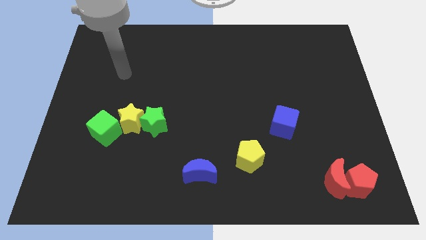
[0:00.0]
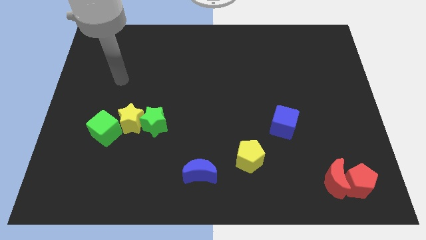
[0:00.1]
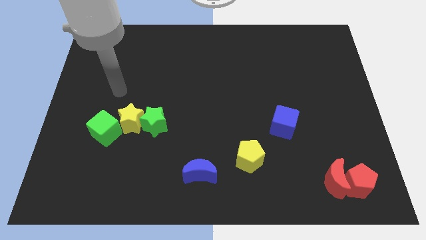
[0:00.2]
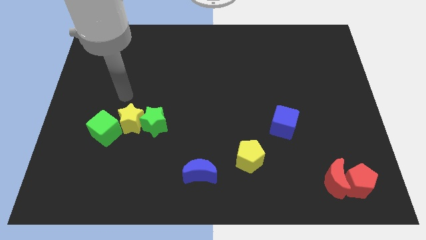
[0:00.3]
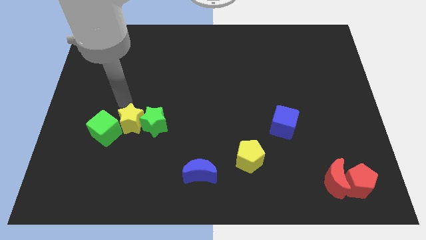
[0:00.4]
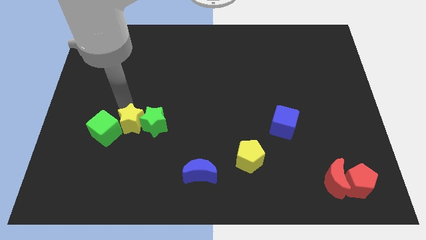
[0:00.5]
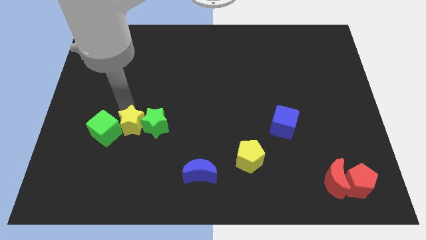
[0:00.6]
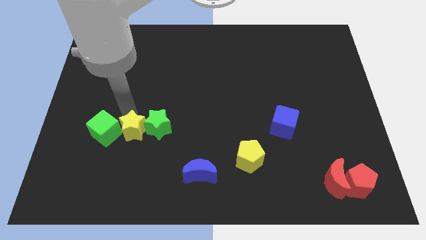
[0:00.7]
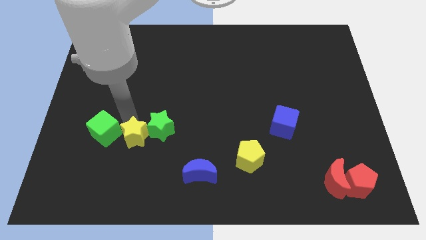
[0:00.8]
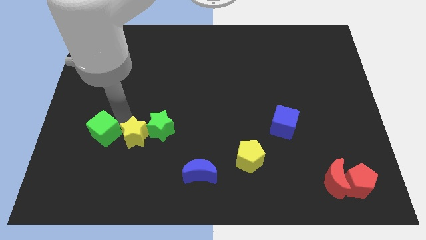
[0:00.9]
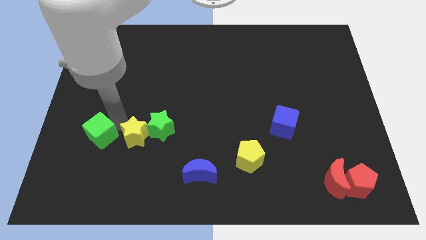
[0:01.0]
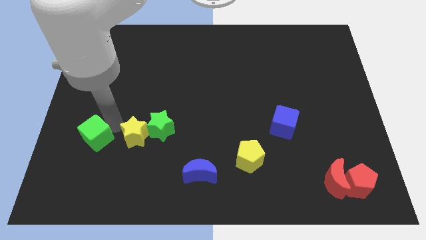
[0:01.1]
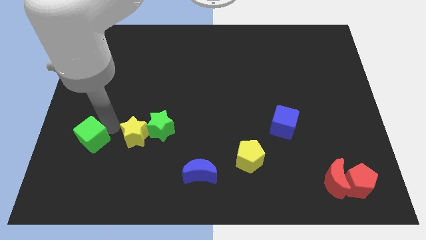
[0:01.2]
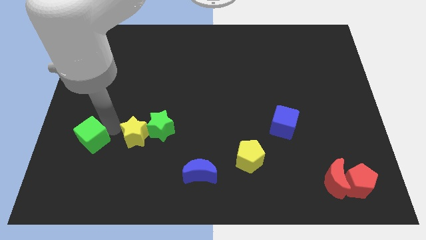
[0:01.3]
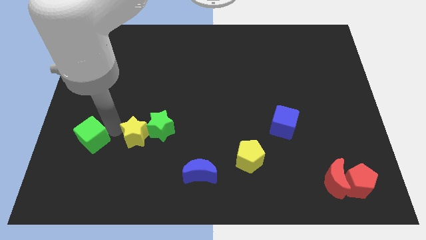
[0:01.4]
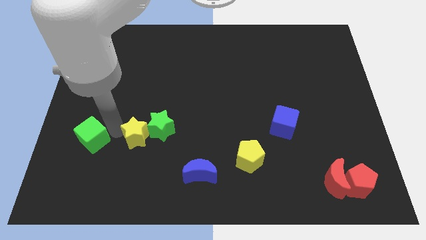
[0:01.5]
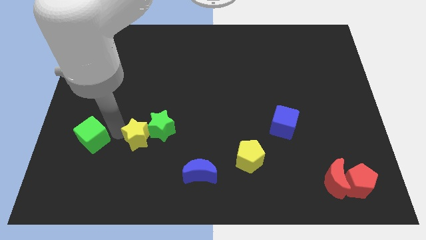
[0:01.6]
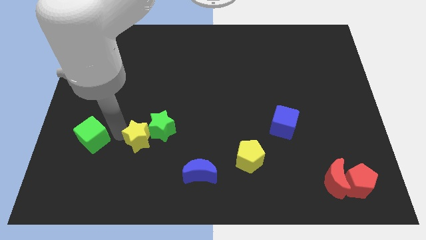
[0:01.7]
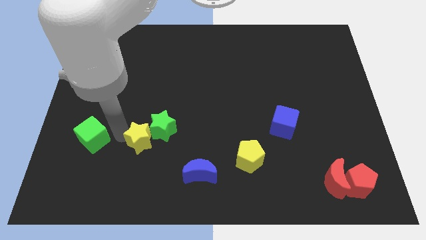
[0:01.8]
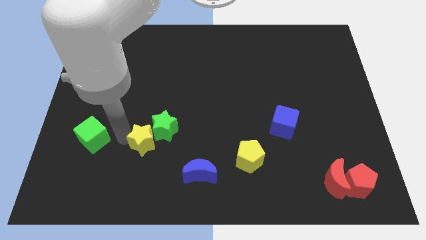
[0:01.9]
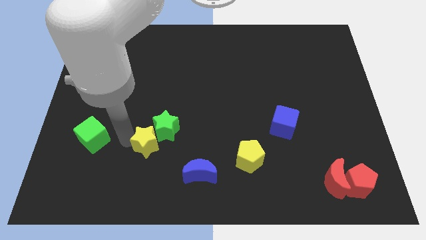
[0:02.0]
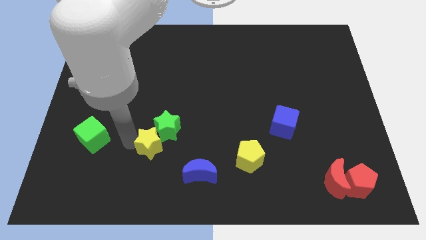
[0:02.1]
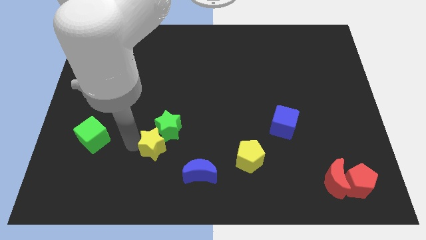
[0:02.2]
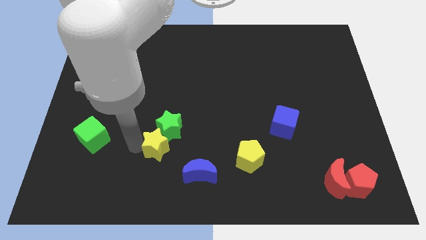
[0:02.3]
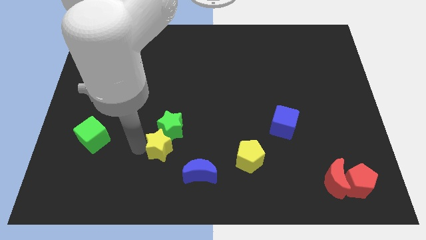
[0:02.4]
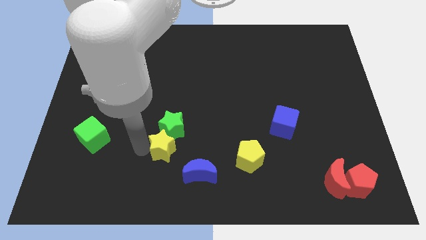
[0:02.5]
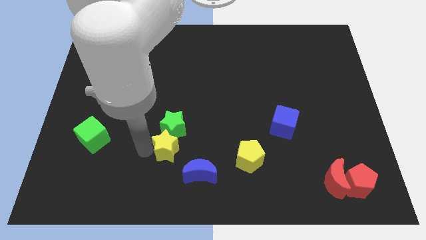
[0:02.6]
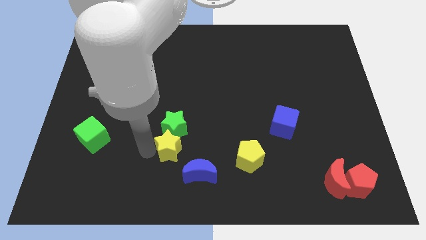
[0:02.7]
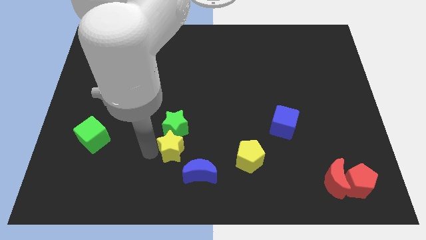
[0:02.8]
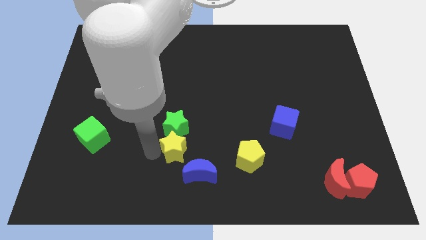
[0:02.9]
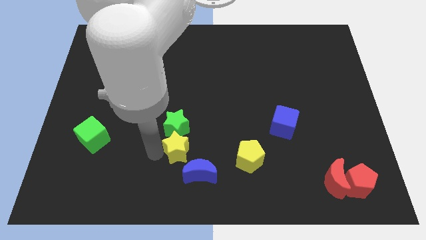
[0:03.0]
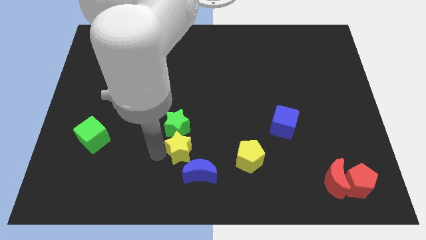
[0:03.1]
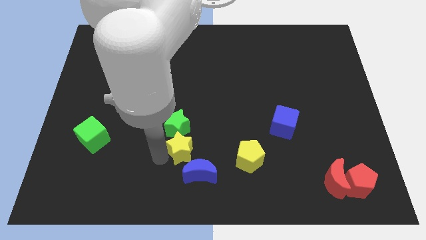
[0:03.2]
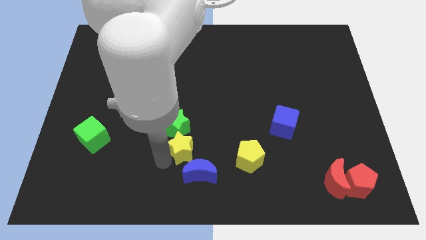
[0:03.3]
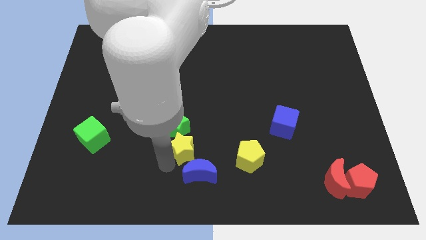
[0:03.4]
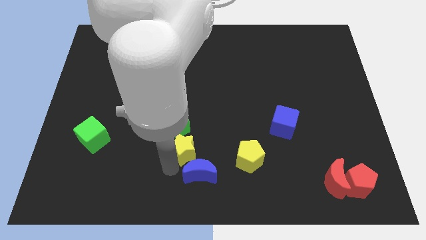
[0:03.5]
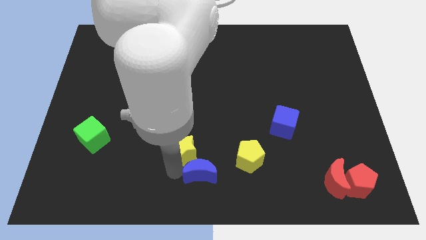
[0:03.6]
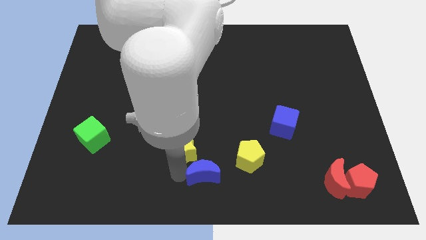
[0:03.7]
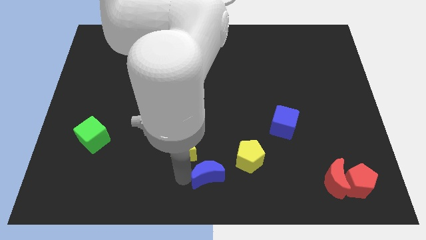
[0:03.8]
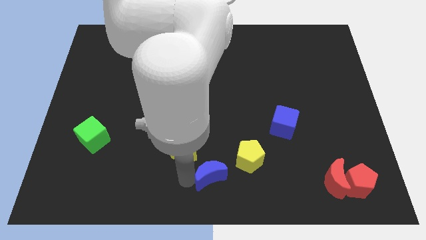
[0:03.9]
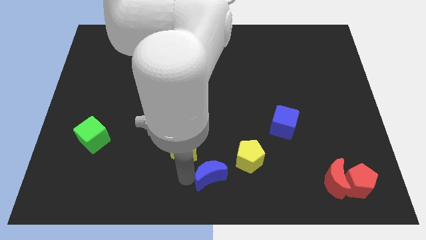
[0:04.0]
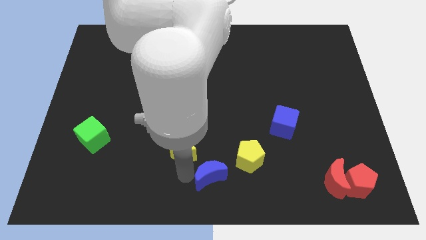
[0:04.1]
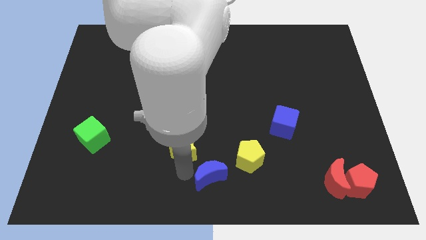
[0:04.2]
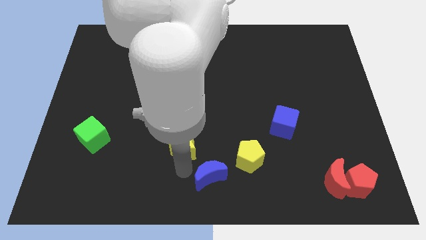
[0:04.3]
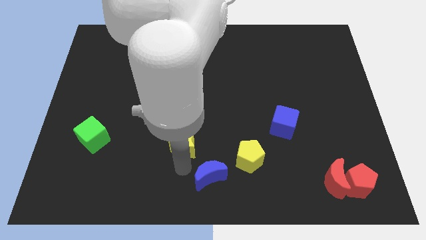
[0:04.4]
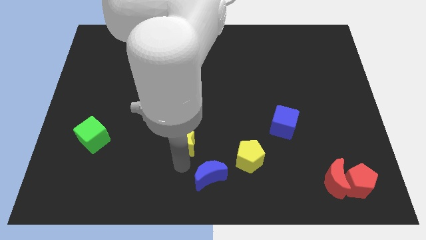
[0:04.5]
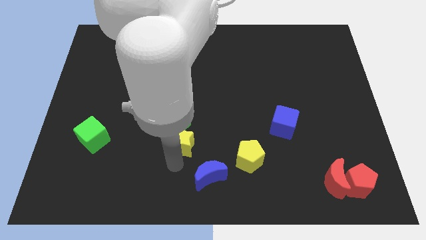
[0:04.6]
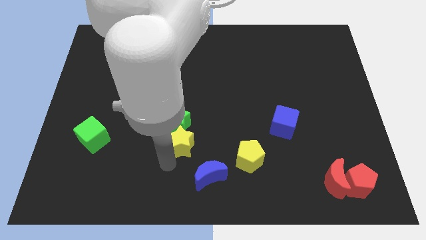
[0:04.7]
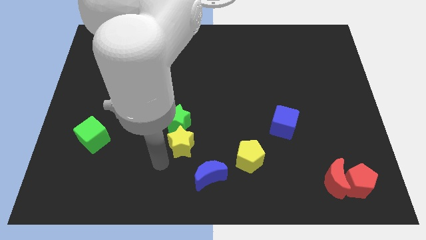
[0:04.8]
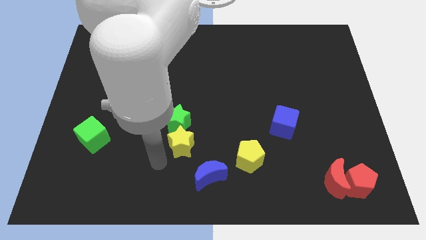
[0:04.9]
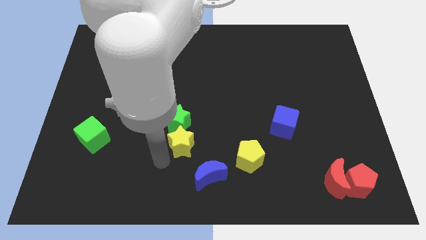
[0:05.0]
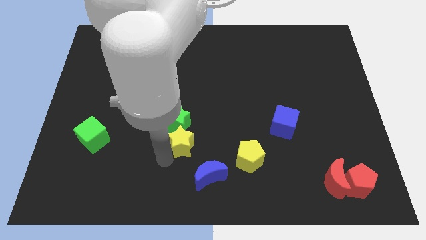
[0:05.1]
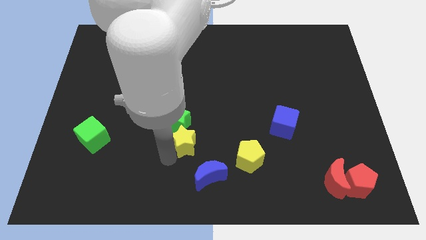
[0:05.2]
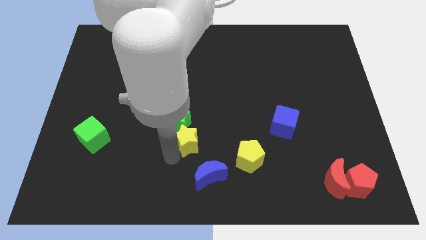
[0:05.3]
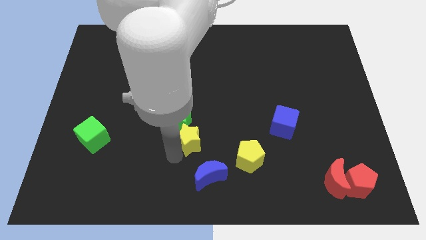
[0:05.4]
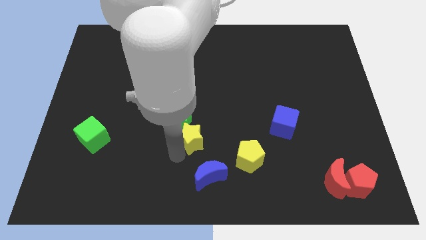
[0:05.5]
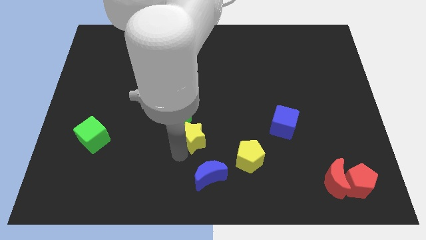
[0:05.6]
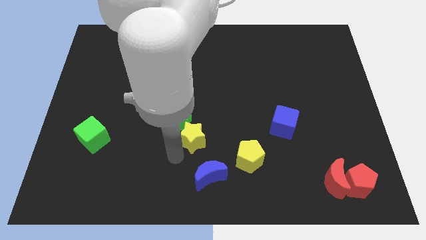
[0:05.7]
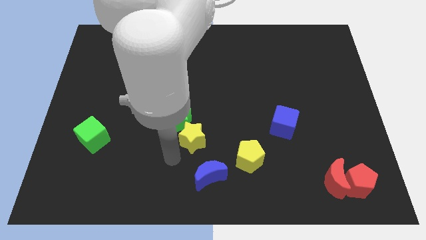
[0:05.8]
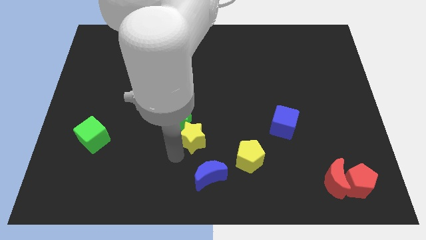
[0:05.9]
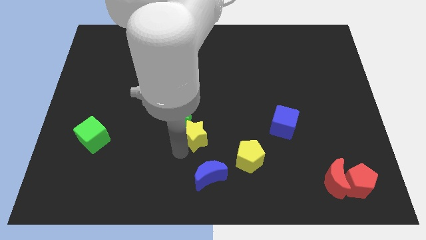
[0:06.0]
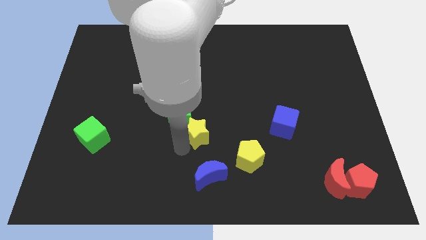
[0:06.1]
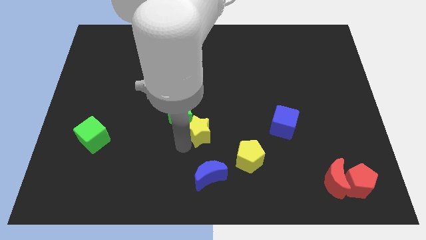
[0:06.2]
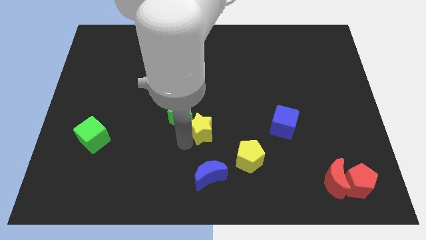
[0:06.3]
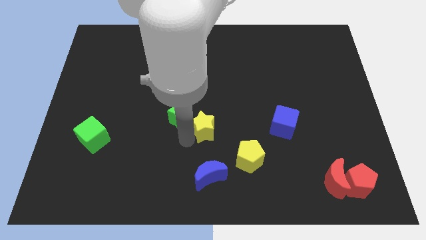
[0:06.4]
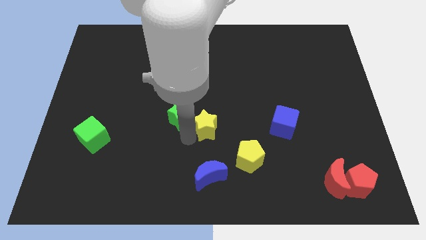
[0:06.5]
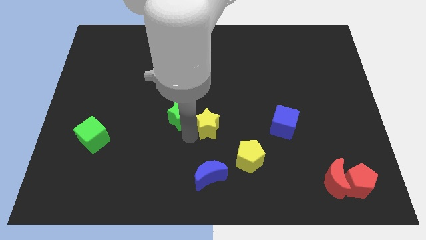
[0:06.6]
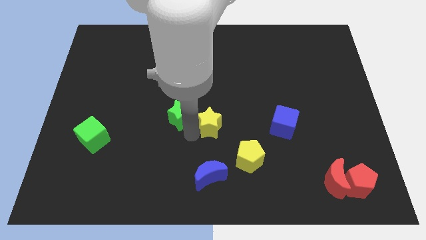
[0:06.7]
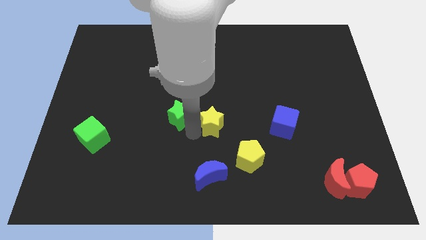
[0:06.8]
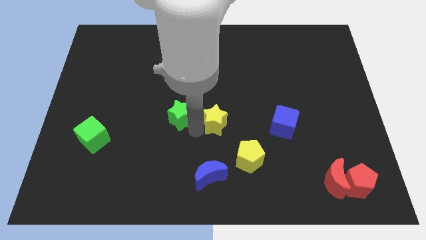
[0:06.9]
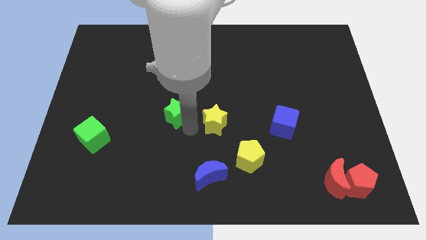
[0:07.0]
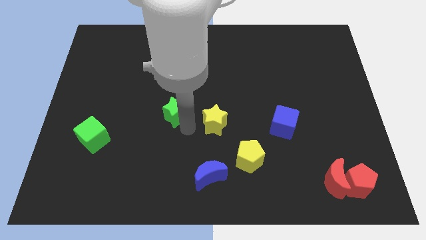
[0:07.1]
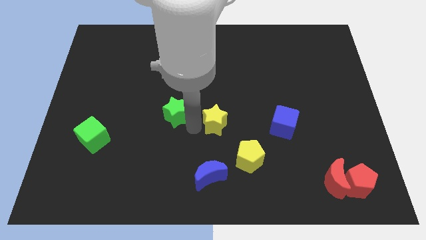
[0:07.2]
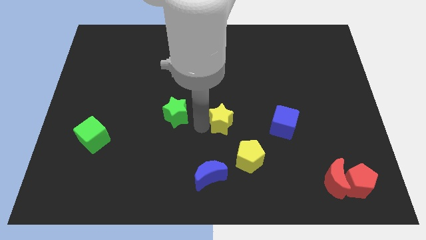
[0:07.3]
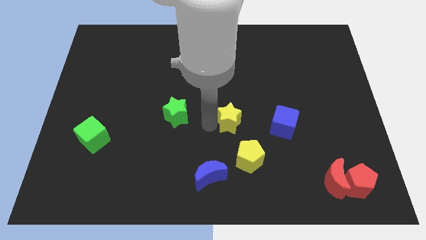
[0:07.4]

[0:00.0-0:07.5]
put the yellow star to the top of the yellow pentagon

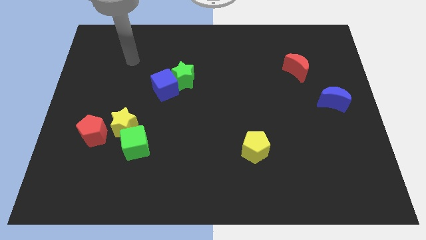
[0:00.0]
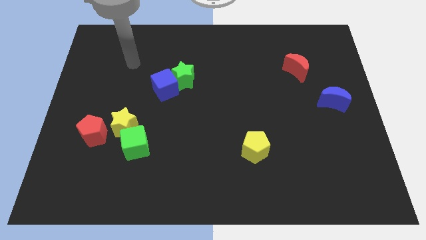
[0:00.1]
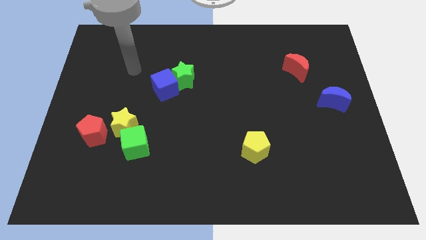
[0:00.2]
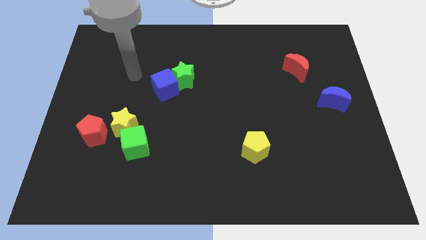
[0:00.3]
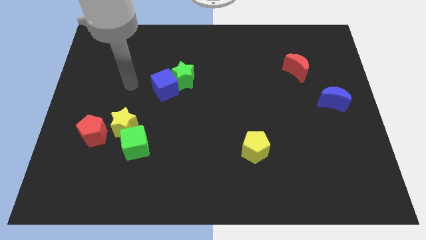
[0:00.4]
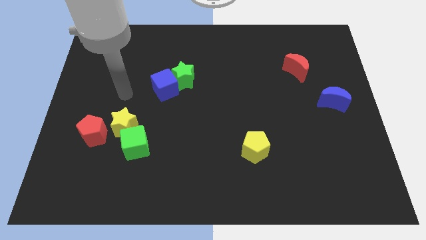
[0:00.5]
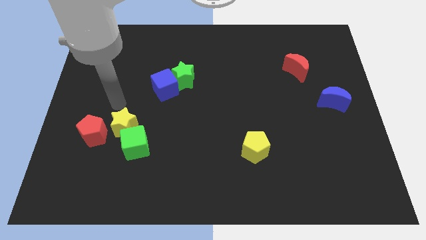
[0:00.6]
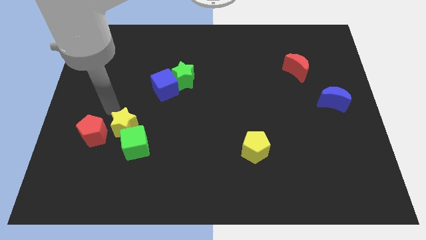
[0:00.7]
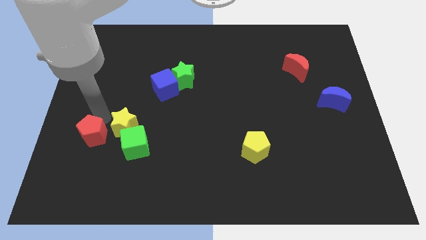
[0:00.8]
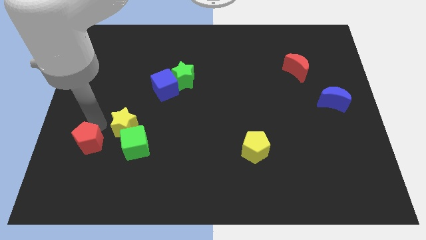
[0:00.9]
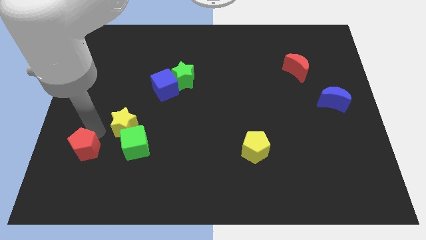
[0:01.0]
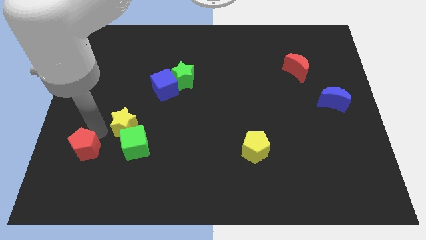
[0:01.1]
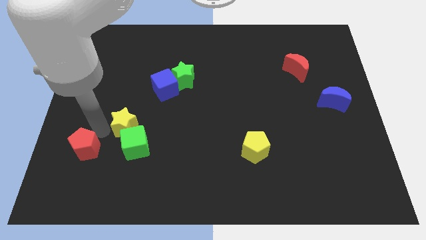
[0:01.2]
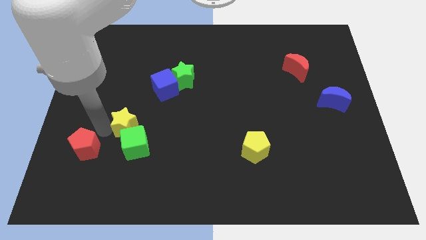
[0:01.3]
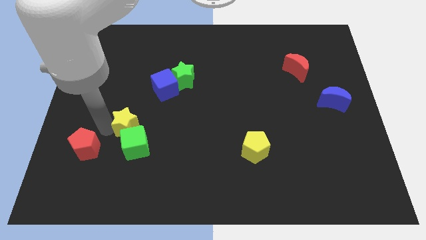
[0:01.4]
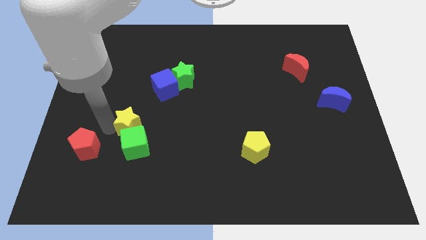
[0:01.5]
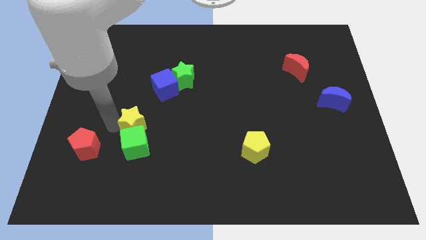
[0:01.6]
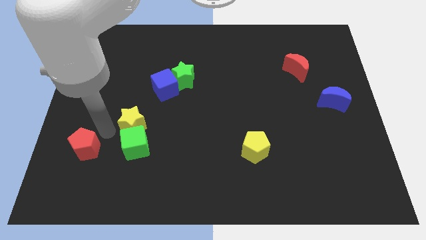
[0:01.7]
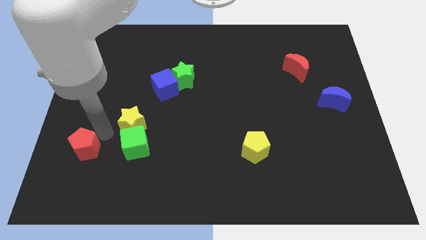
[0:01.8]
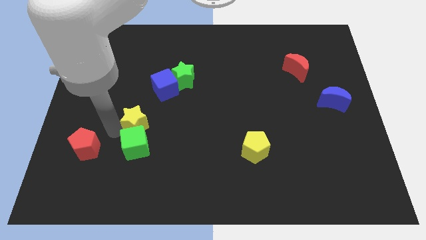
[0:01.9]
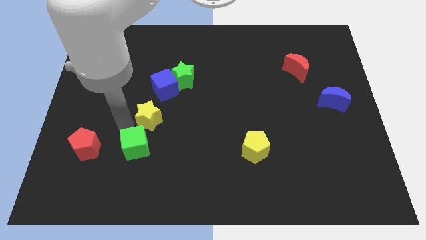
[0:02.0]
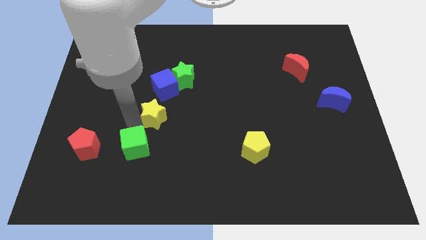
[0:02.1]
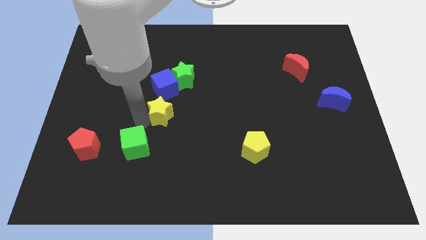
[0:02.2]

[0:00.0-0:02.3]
slide the yellow star below the green star
